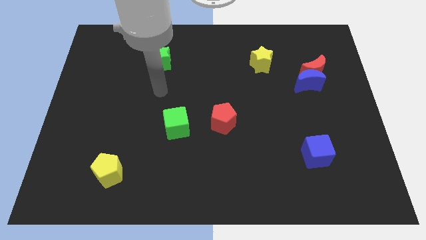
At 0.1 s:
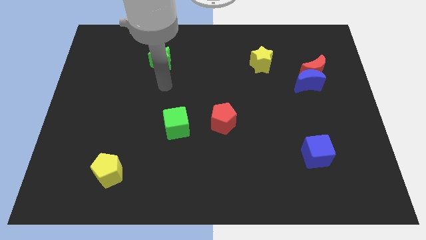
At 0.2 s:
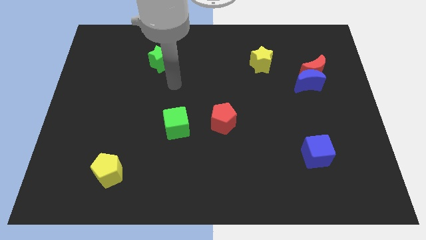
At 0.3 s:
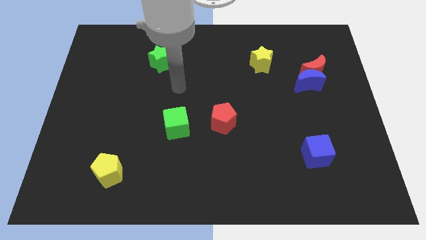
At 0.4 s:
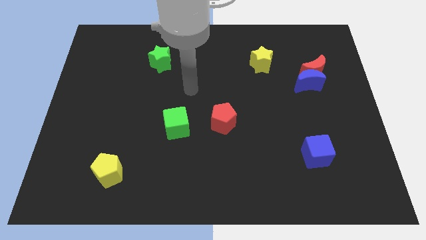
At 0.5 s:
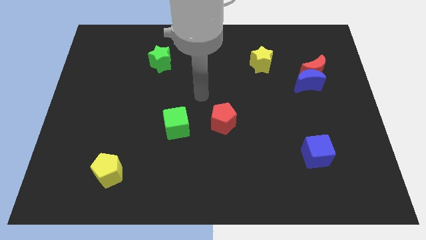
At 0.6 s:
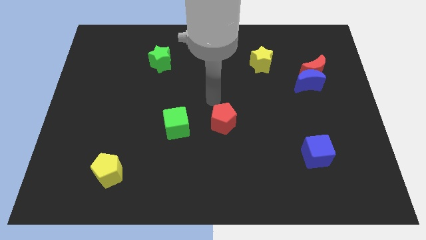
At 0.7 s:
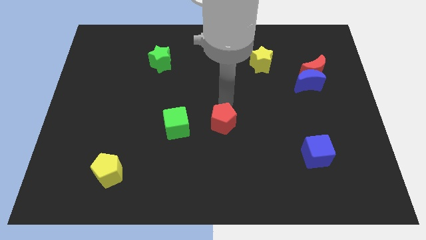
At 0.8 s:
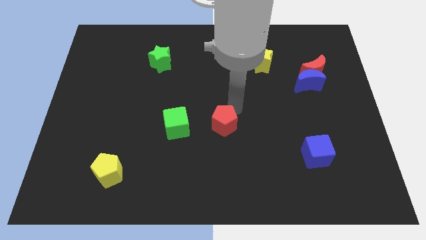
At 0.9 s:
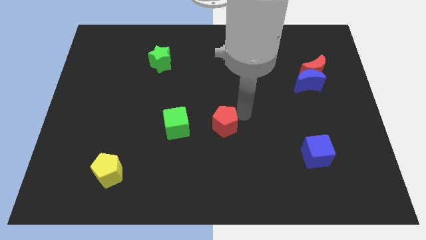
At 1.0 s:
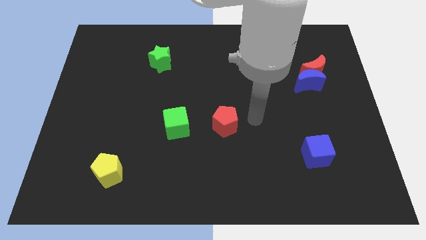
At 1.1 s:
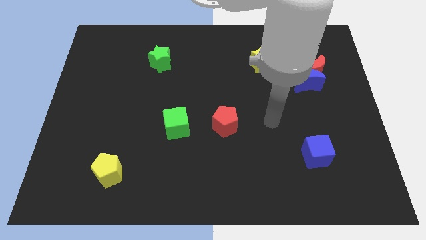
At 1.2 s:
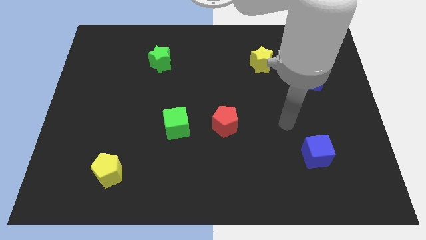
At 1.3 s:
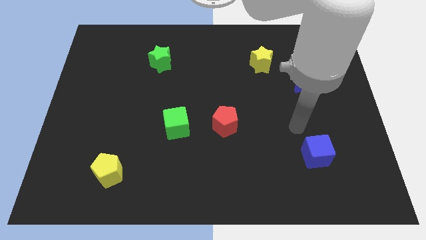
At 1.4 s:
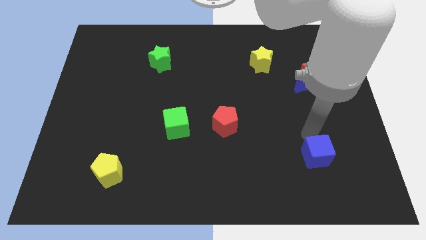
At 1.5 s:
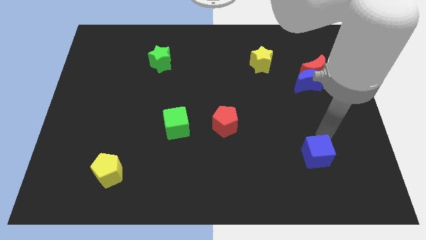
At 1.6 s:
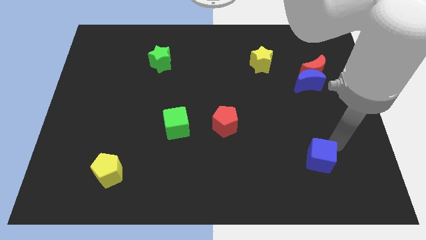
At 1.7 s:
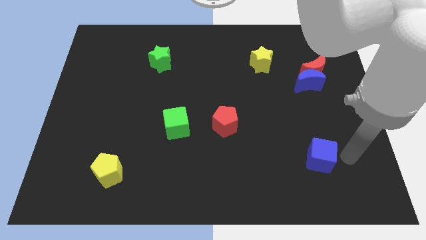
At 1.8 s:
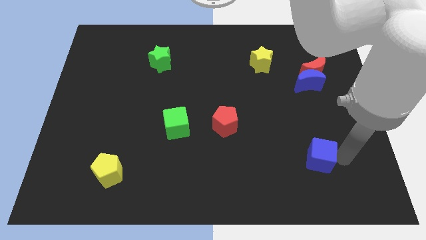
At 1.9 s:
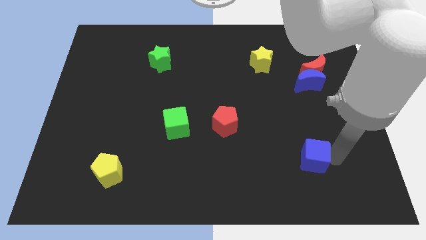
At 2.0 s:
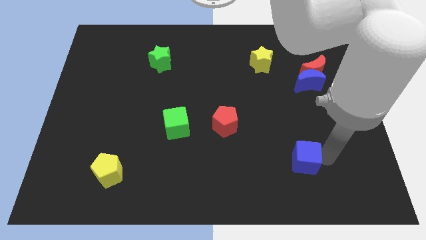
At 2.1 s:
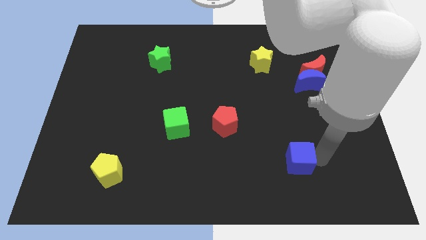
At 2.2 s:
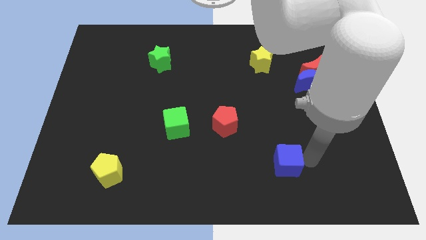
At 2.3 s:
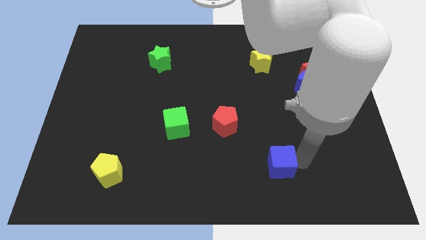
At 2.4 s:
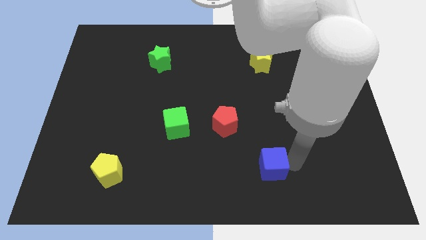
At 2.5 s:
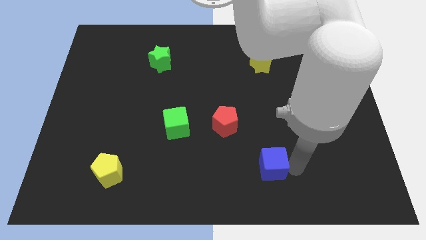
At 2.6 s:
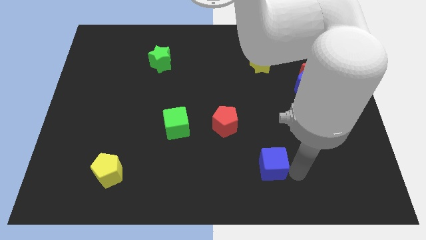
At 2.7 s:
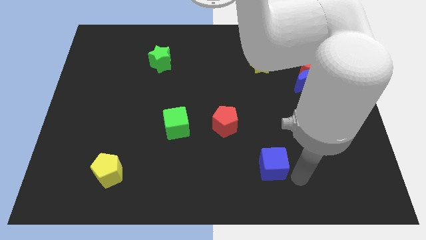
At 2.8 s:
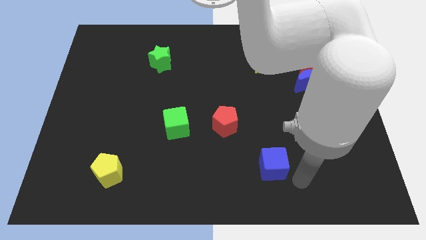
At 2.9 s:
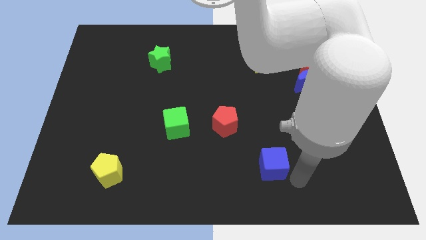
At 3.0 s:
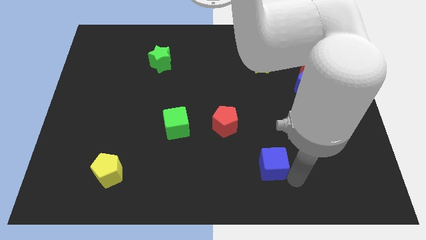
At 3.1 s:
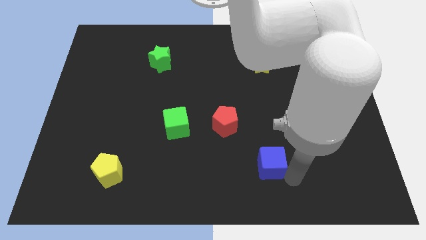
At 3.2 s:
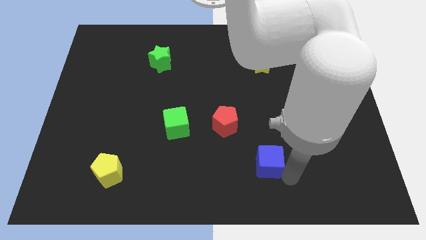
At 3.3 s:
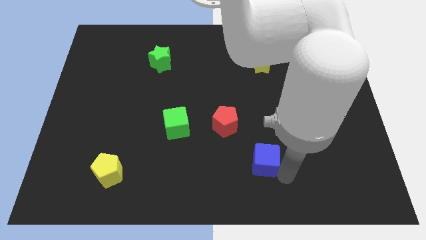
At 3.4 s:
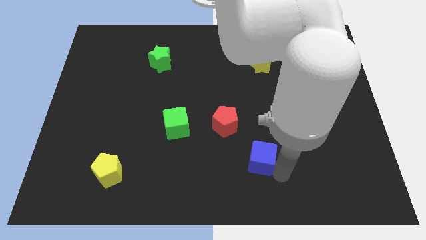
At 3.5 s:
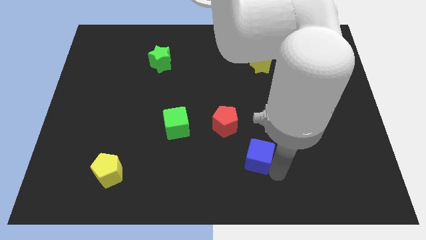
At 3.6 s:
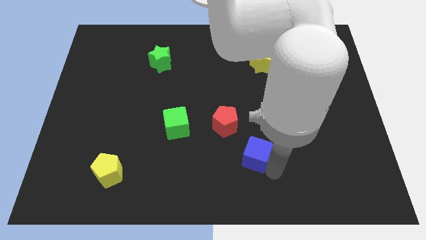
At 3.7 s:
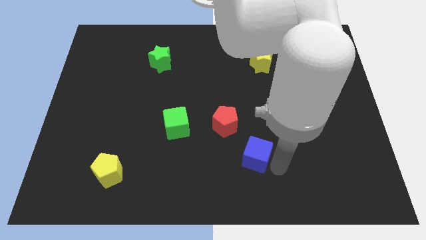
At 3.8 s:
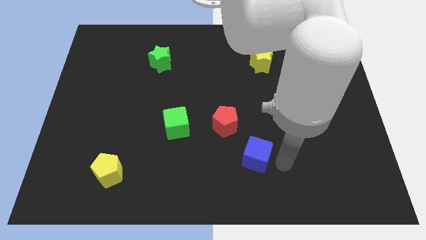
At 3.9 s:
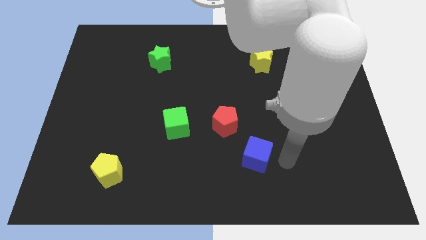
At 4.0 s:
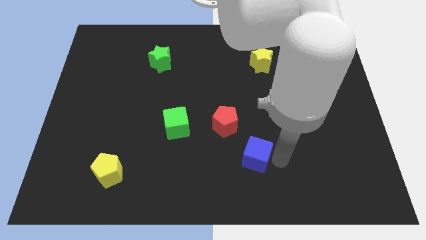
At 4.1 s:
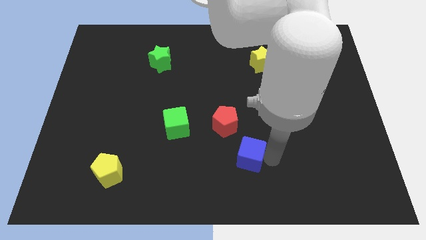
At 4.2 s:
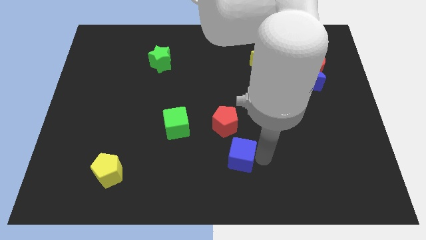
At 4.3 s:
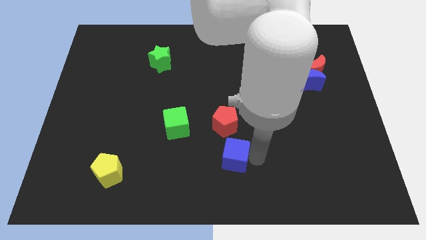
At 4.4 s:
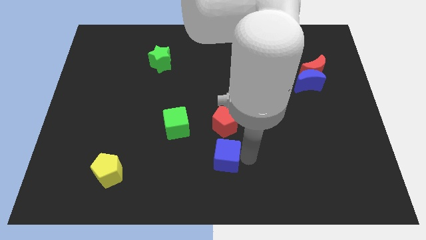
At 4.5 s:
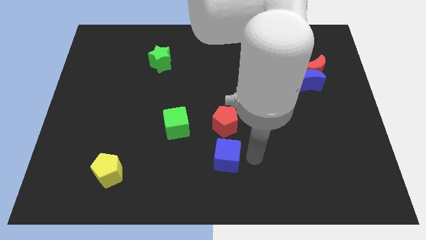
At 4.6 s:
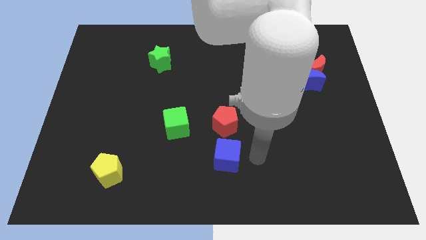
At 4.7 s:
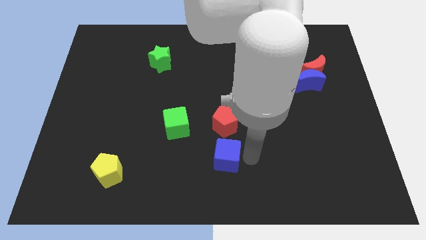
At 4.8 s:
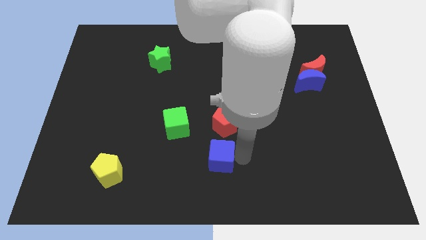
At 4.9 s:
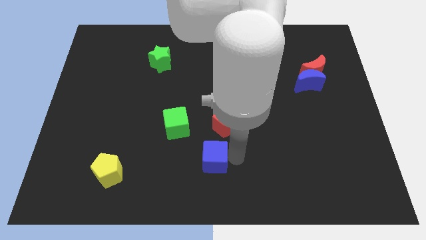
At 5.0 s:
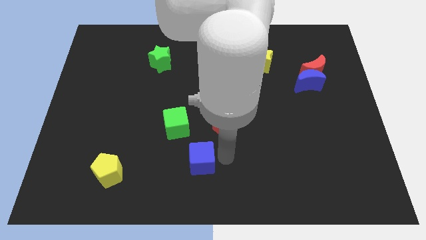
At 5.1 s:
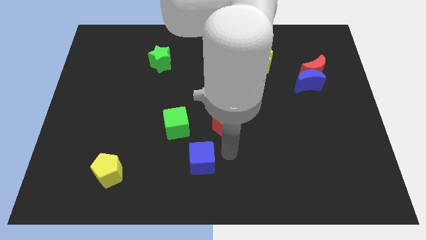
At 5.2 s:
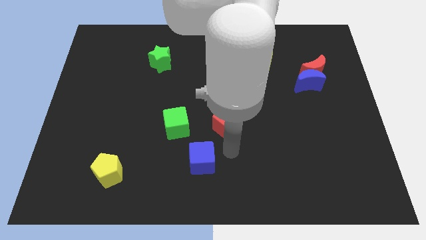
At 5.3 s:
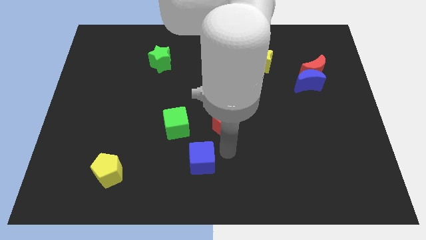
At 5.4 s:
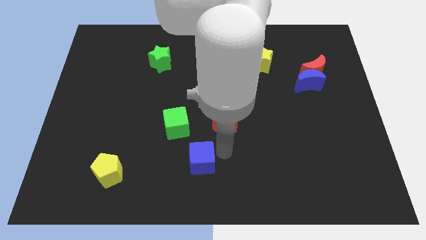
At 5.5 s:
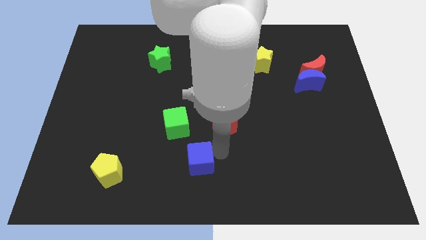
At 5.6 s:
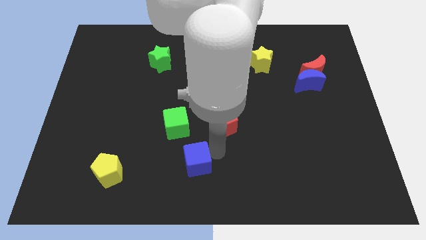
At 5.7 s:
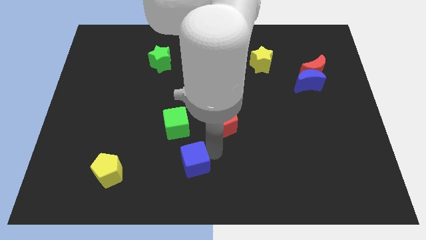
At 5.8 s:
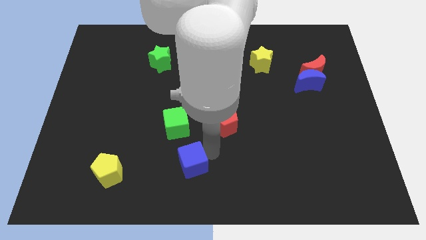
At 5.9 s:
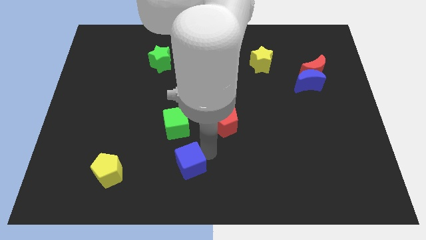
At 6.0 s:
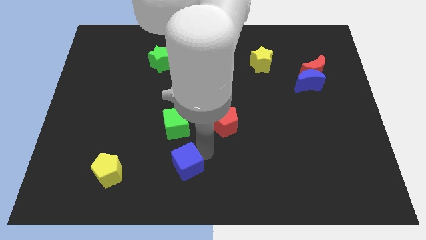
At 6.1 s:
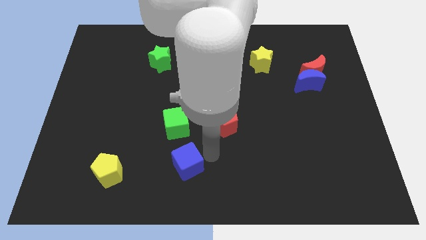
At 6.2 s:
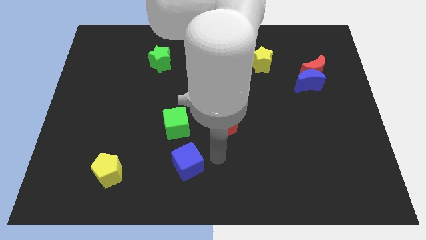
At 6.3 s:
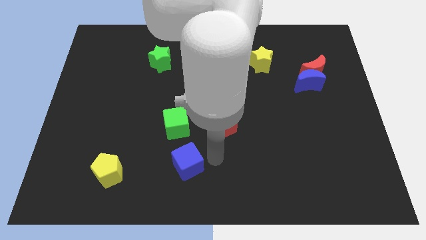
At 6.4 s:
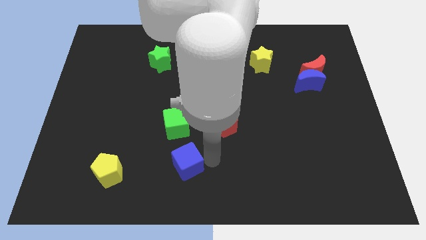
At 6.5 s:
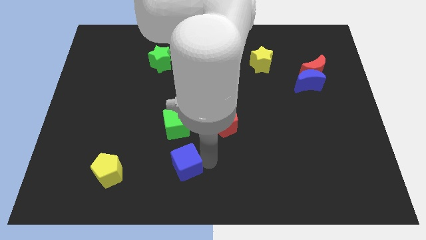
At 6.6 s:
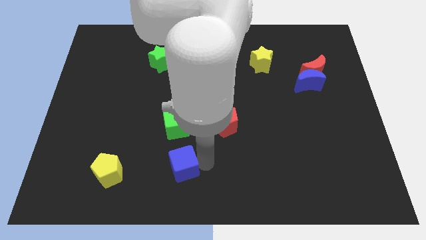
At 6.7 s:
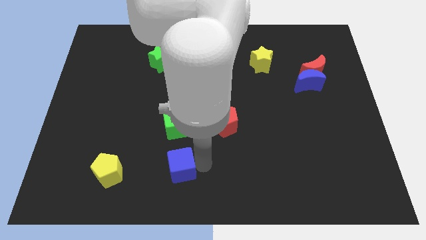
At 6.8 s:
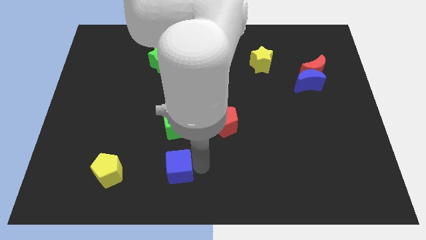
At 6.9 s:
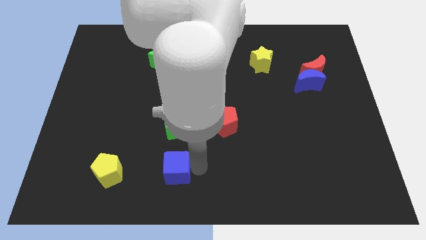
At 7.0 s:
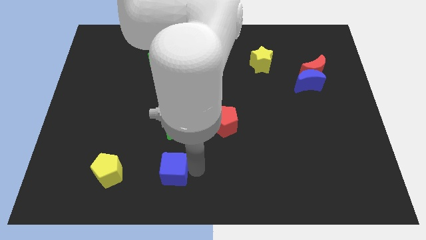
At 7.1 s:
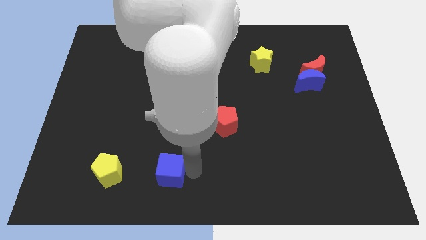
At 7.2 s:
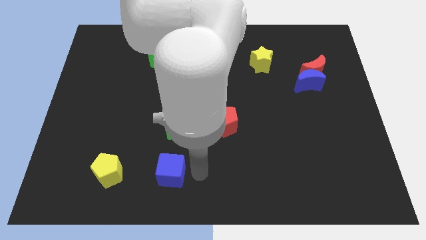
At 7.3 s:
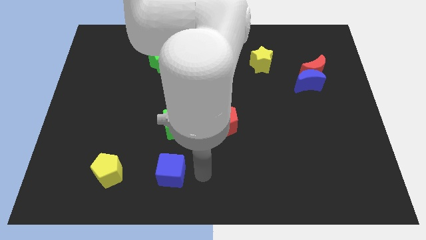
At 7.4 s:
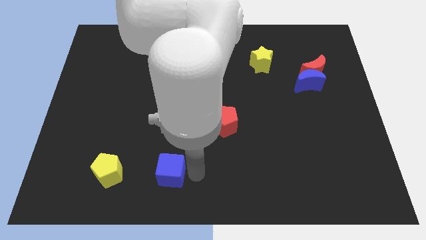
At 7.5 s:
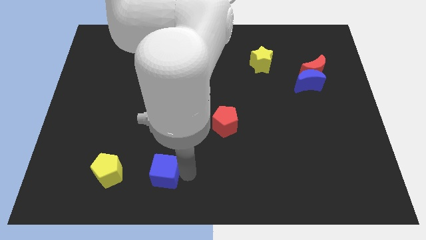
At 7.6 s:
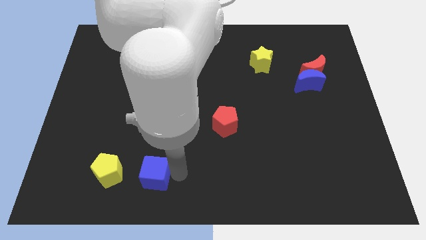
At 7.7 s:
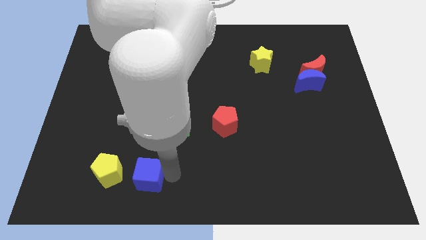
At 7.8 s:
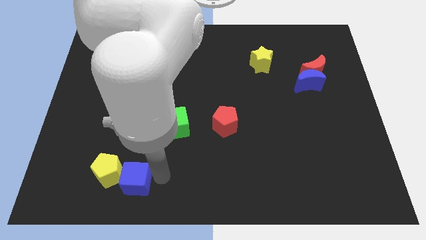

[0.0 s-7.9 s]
push the blue cube to the yellow pentagon
